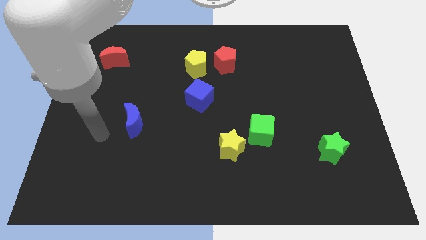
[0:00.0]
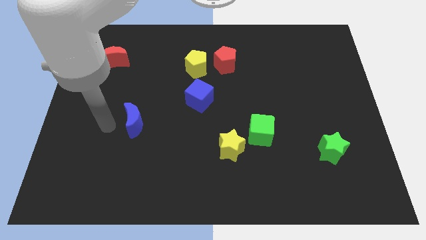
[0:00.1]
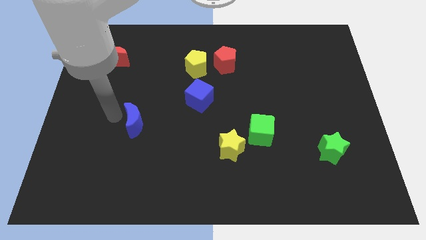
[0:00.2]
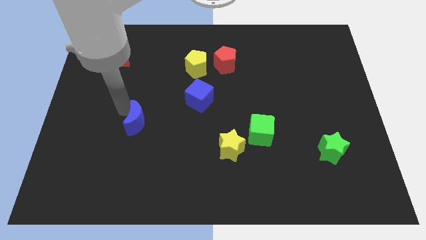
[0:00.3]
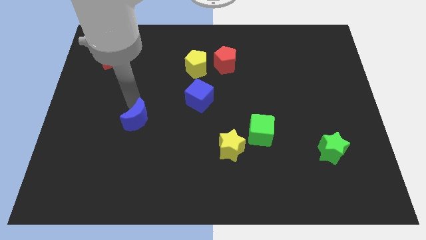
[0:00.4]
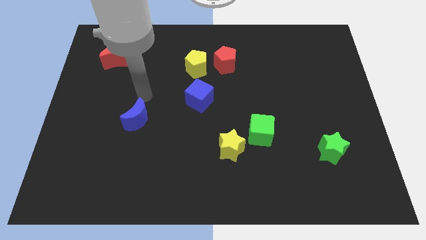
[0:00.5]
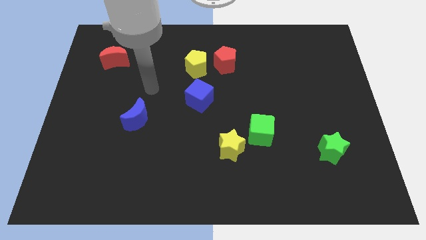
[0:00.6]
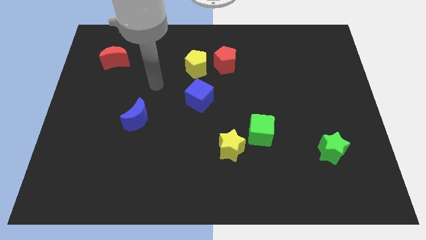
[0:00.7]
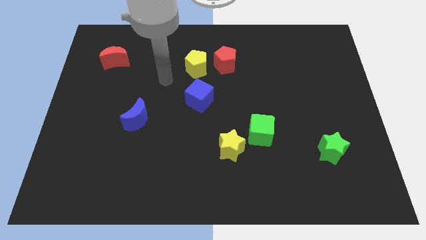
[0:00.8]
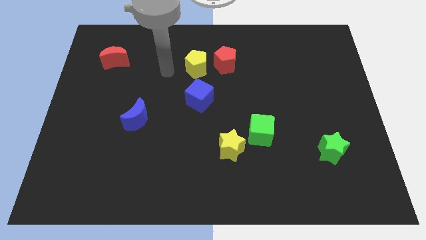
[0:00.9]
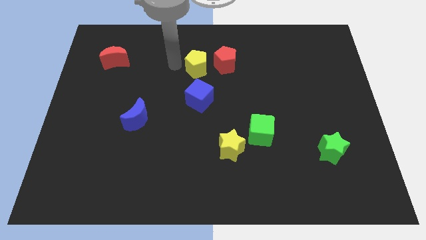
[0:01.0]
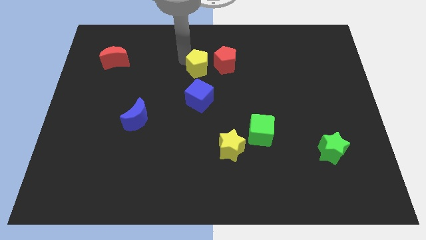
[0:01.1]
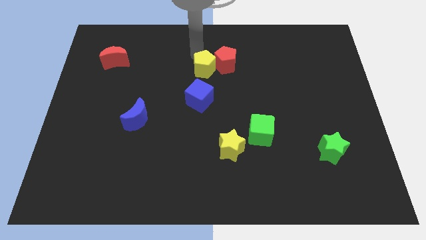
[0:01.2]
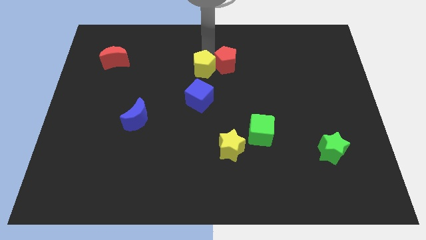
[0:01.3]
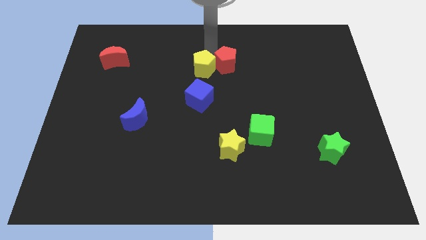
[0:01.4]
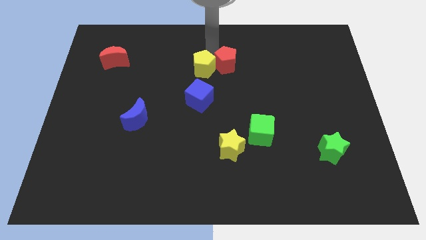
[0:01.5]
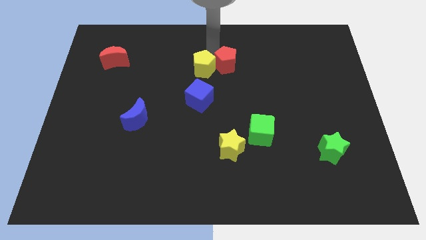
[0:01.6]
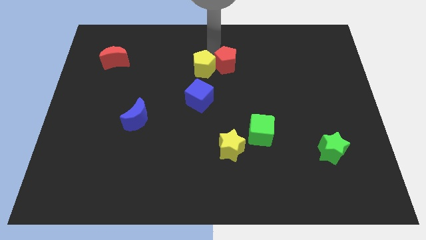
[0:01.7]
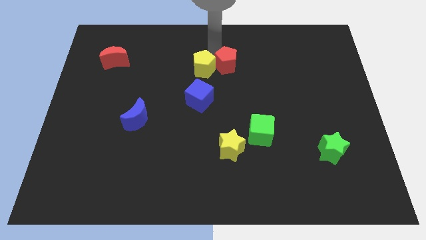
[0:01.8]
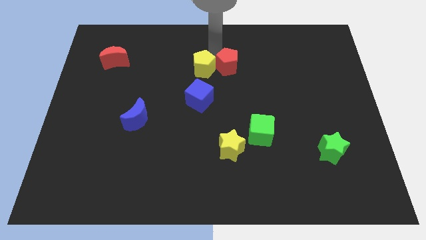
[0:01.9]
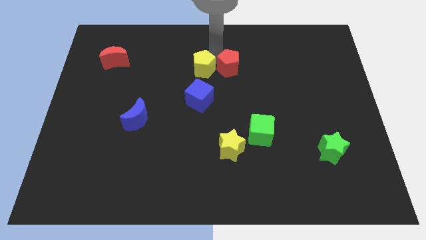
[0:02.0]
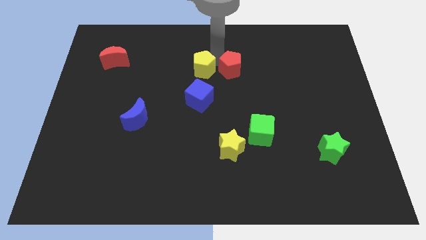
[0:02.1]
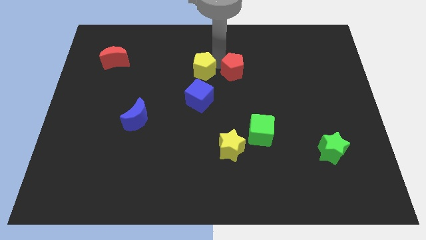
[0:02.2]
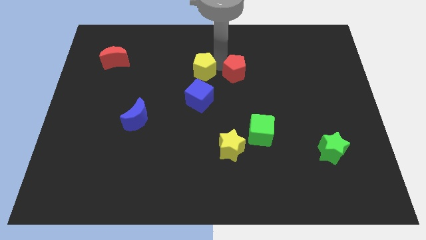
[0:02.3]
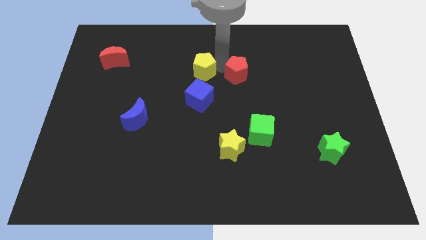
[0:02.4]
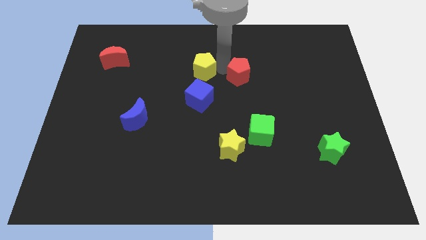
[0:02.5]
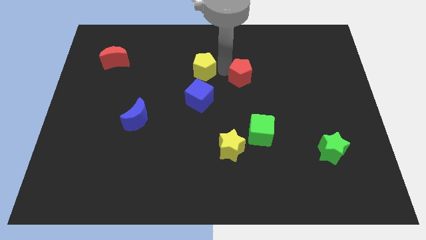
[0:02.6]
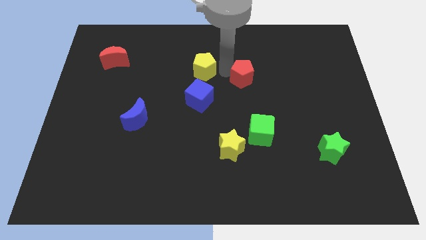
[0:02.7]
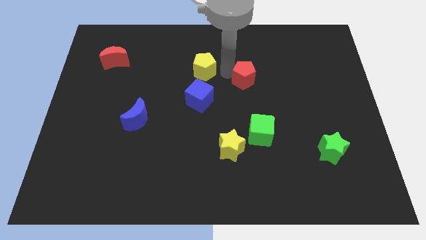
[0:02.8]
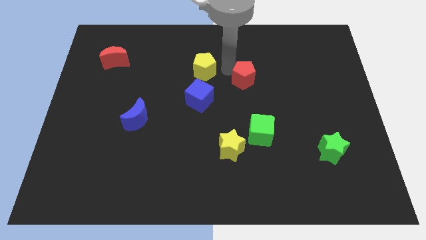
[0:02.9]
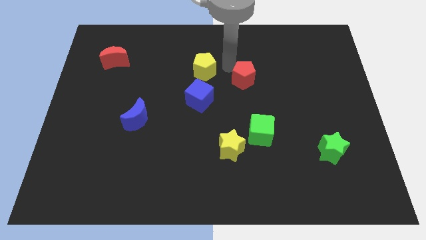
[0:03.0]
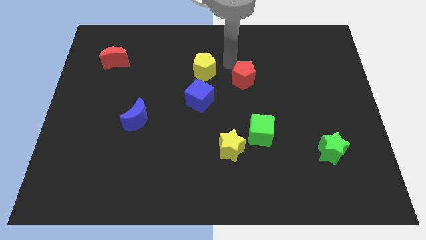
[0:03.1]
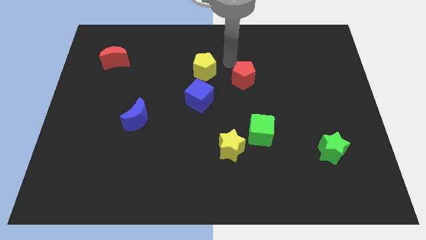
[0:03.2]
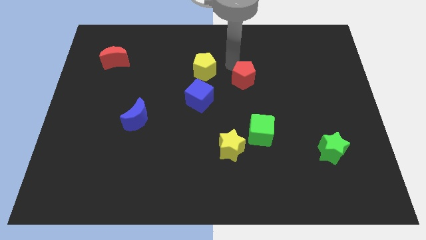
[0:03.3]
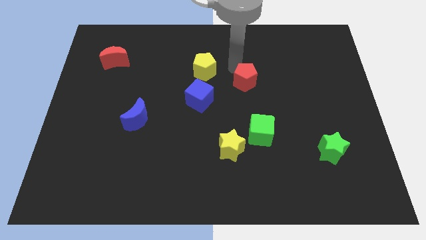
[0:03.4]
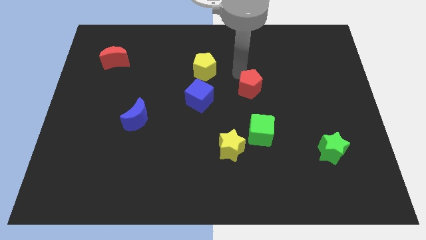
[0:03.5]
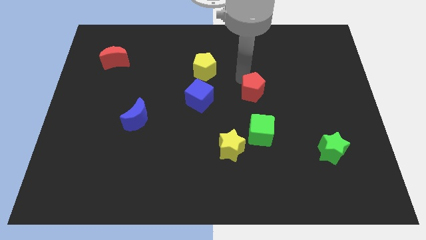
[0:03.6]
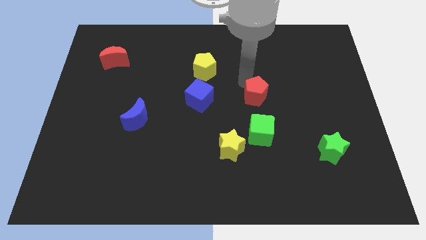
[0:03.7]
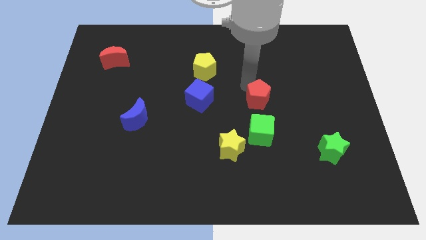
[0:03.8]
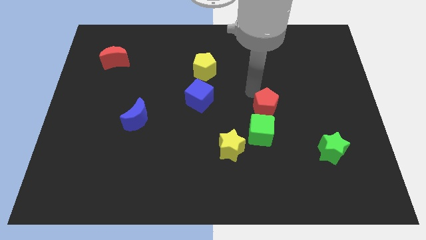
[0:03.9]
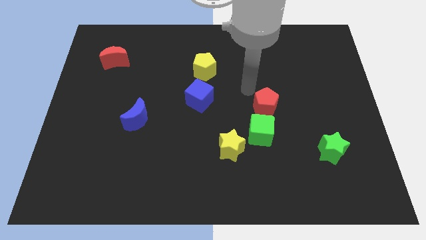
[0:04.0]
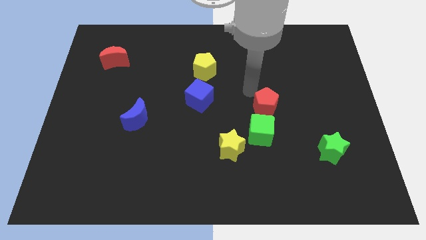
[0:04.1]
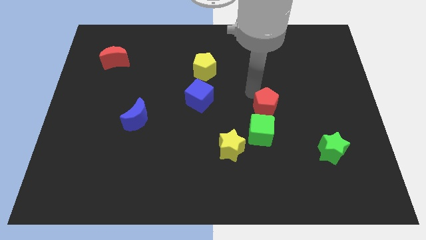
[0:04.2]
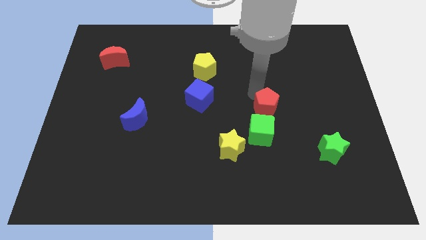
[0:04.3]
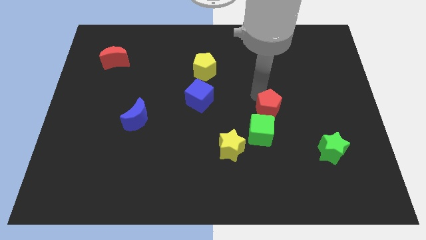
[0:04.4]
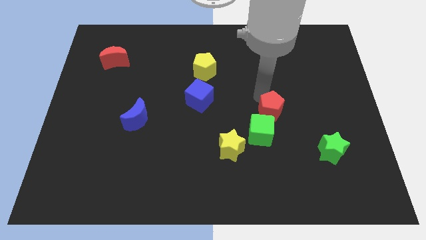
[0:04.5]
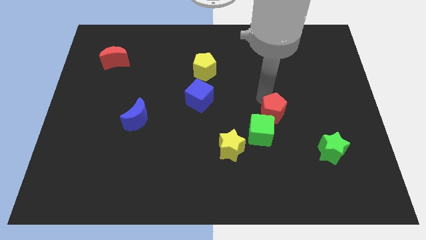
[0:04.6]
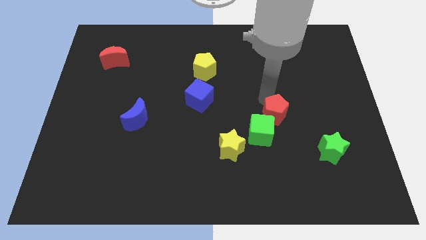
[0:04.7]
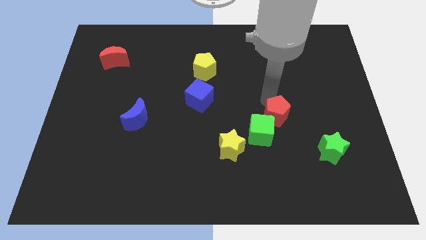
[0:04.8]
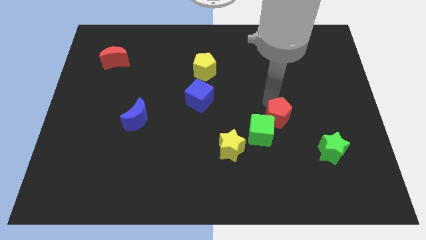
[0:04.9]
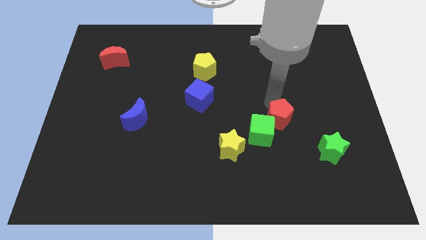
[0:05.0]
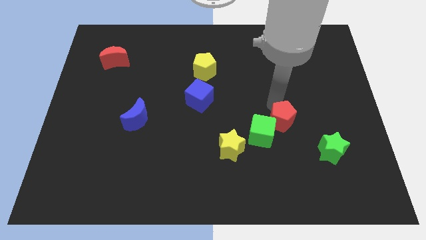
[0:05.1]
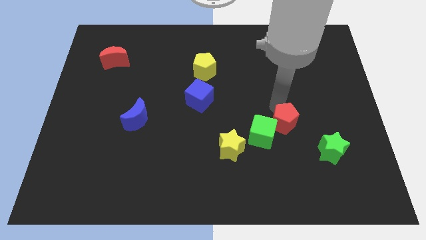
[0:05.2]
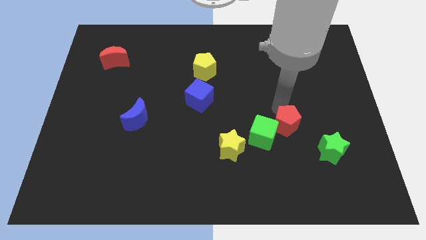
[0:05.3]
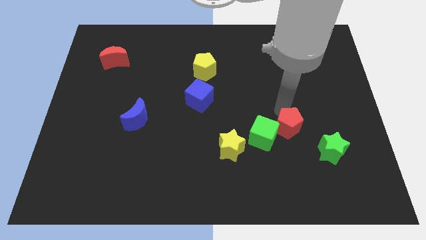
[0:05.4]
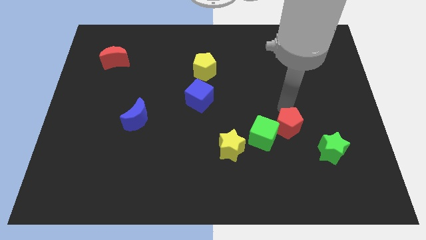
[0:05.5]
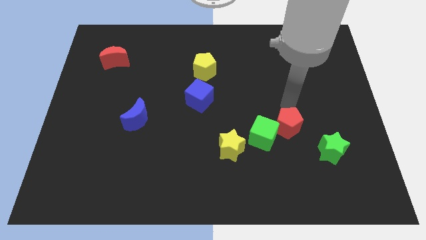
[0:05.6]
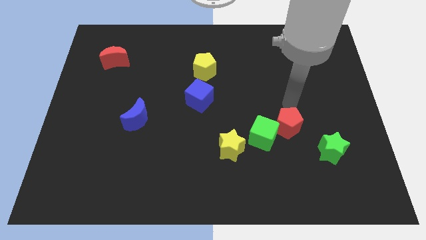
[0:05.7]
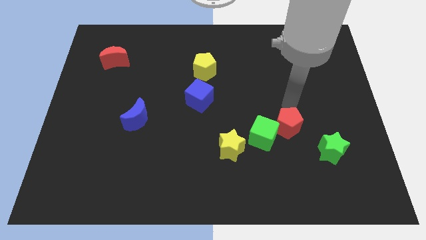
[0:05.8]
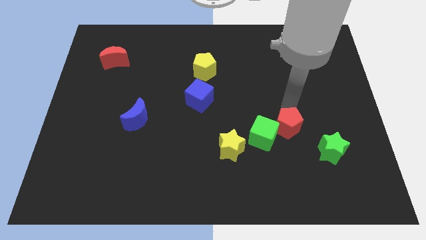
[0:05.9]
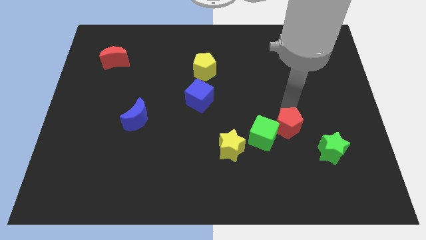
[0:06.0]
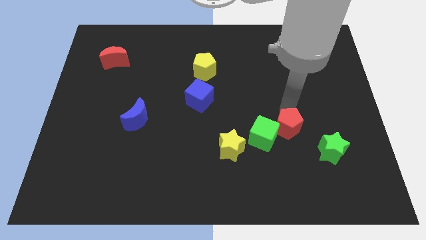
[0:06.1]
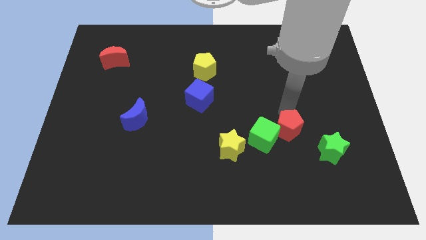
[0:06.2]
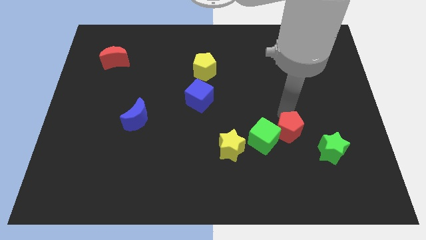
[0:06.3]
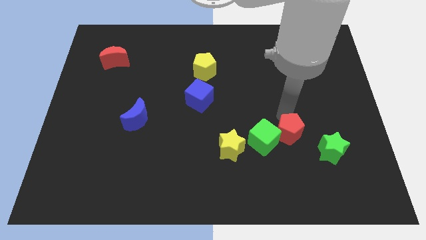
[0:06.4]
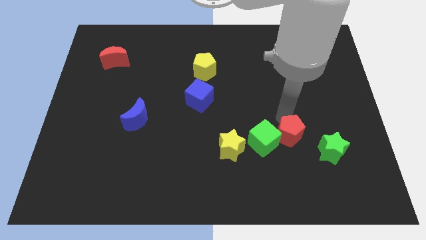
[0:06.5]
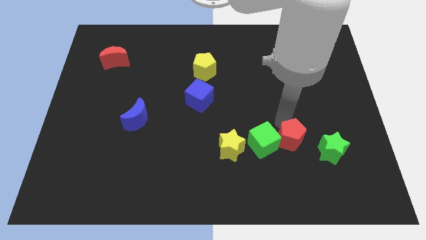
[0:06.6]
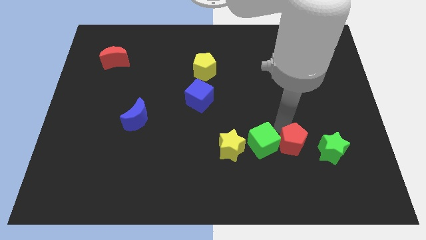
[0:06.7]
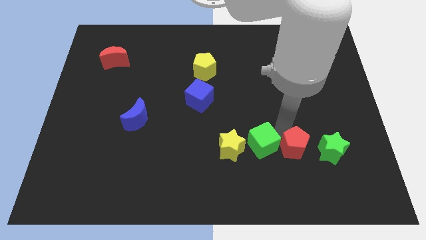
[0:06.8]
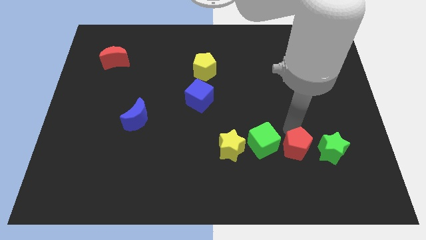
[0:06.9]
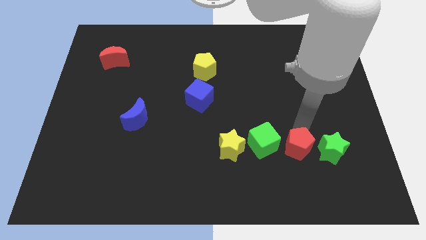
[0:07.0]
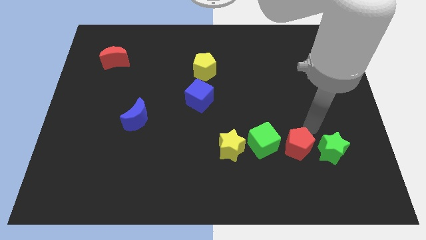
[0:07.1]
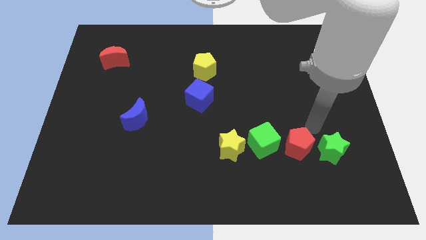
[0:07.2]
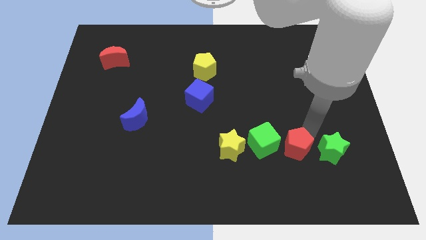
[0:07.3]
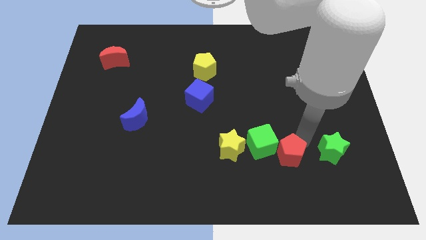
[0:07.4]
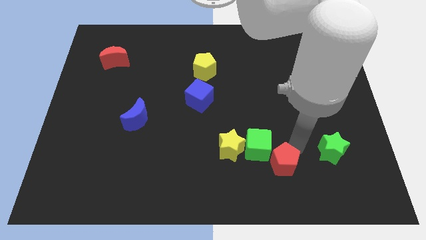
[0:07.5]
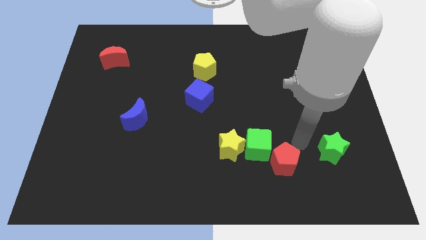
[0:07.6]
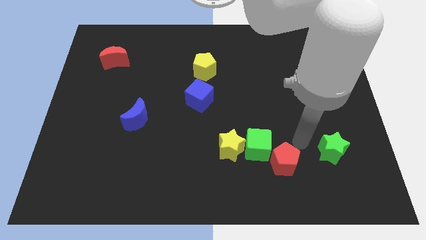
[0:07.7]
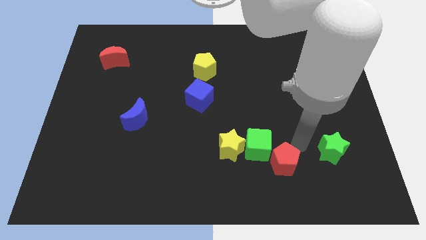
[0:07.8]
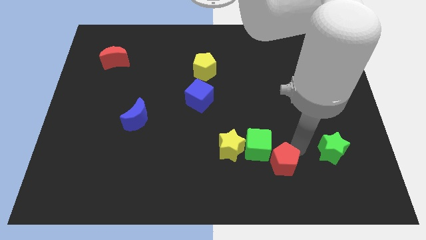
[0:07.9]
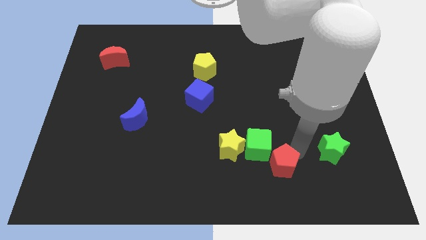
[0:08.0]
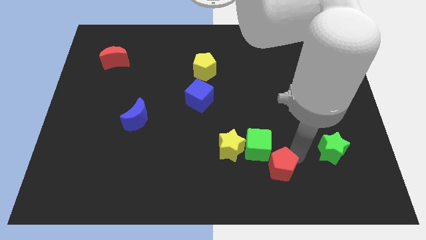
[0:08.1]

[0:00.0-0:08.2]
push the red pentagon to the bottom of the green cube
